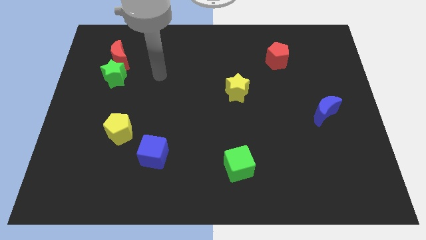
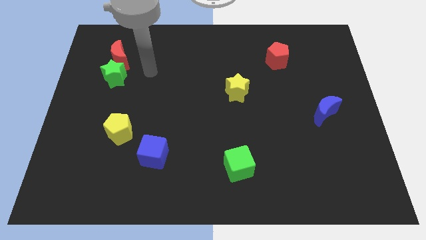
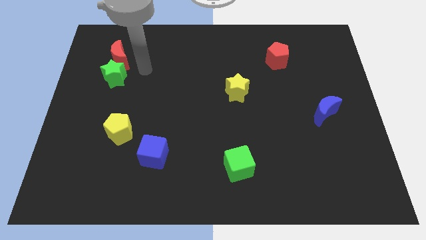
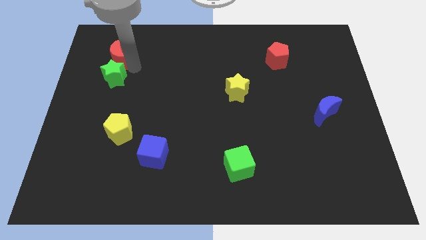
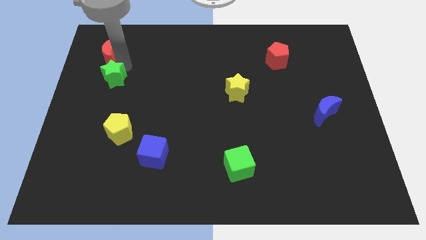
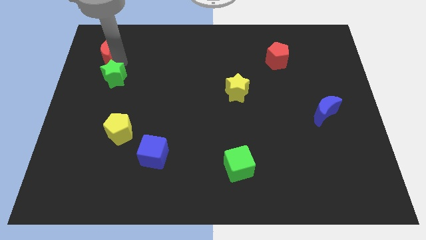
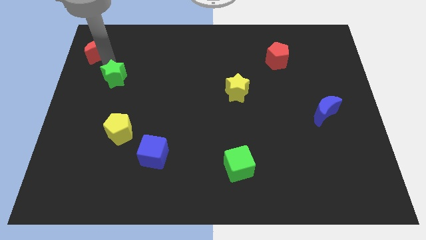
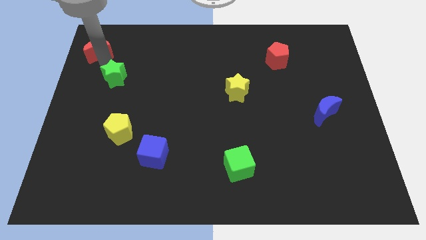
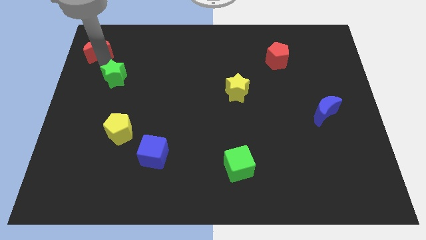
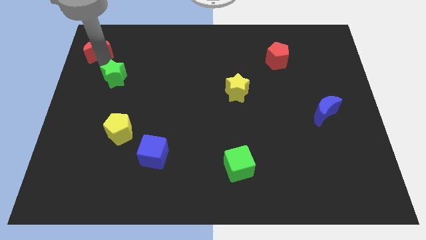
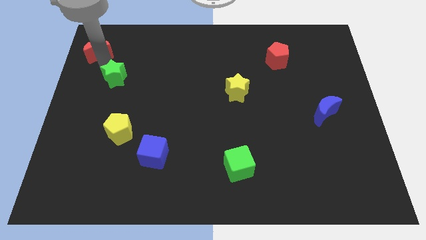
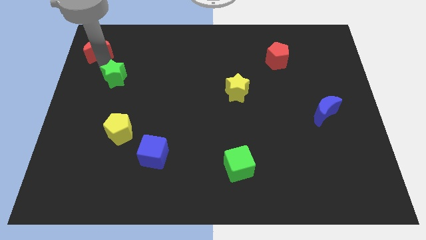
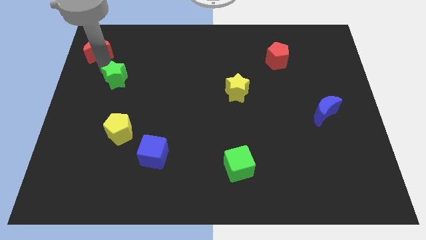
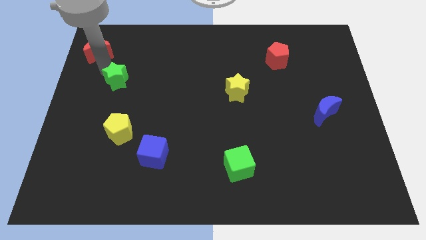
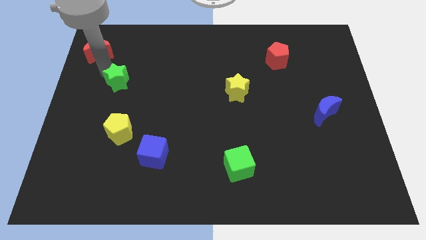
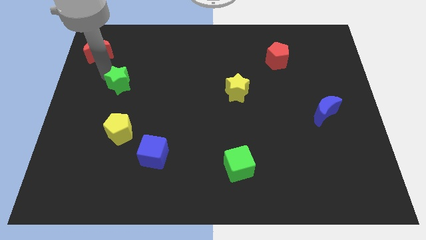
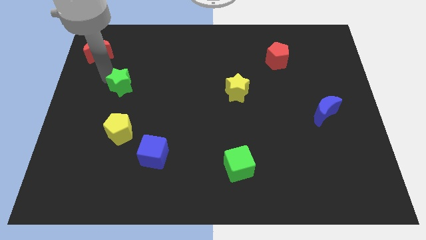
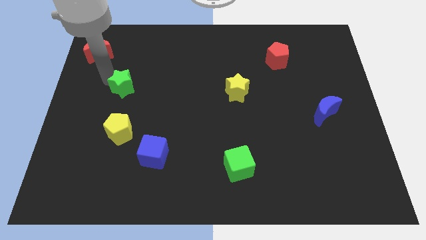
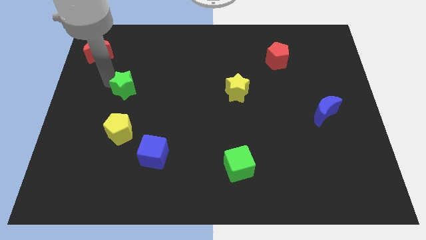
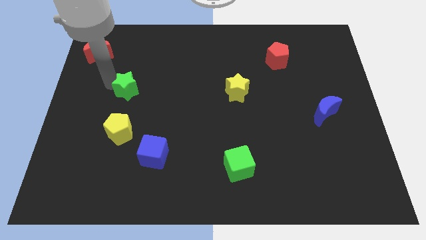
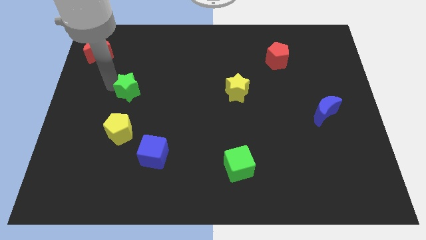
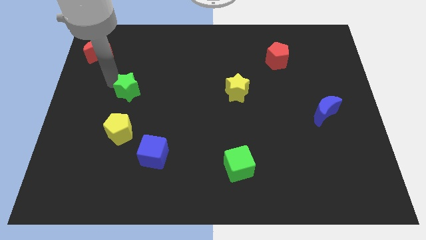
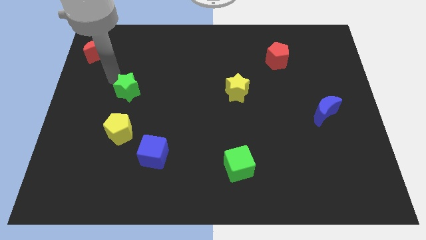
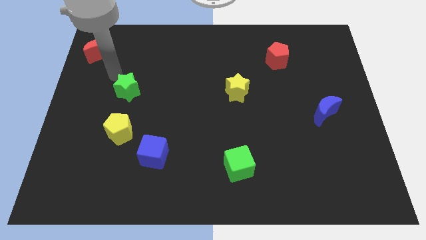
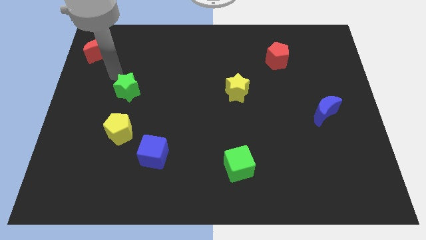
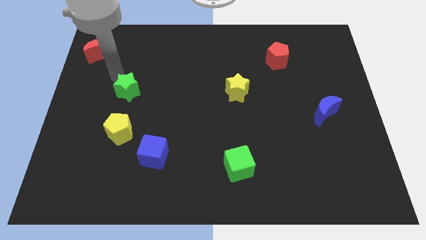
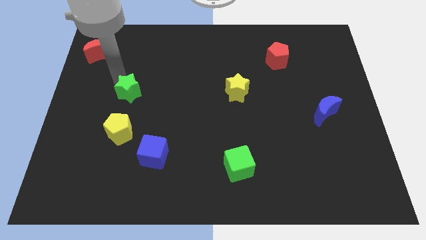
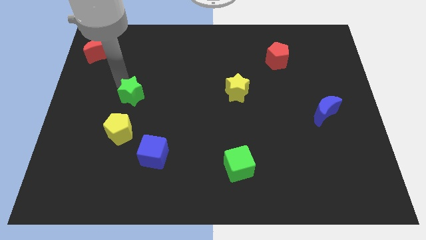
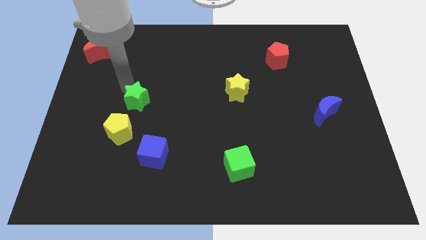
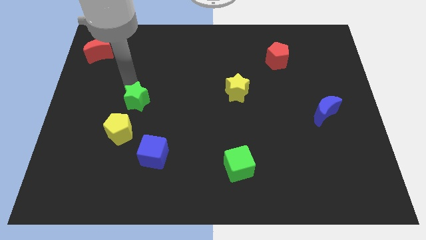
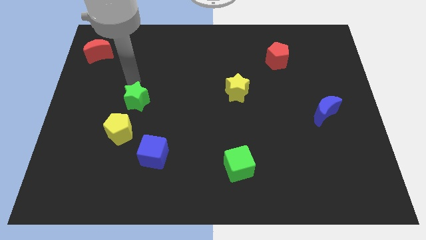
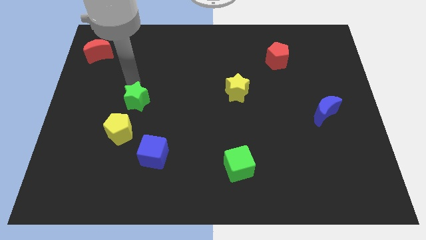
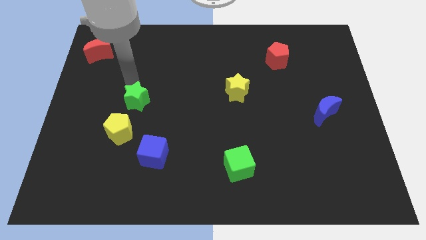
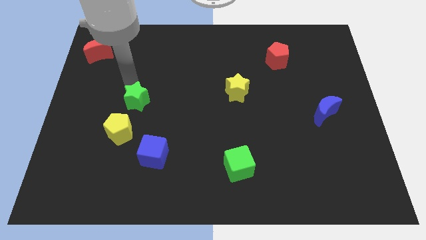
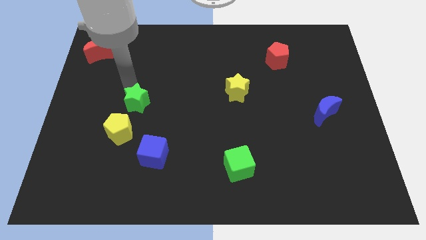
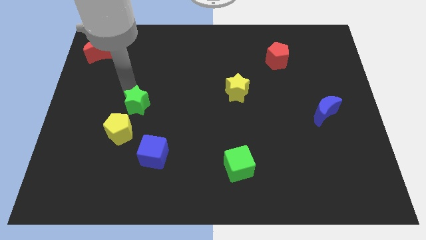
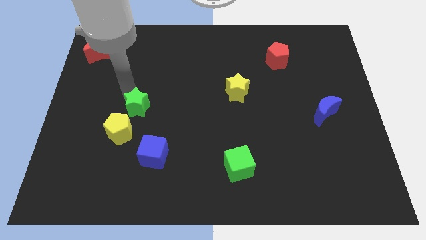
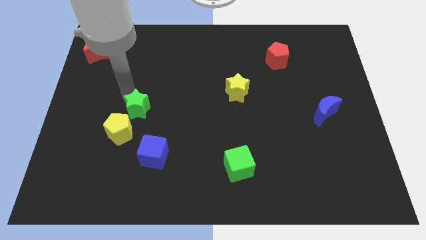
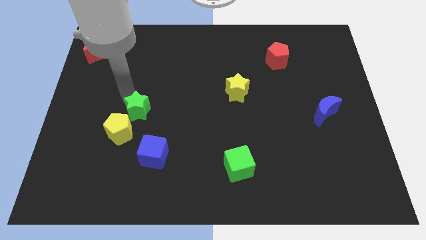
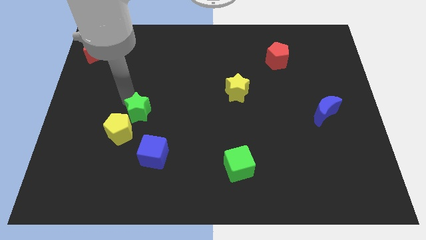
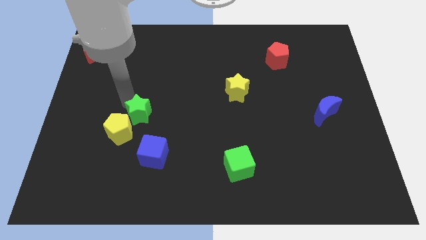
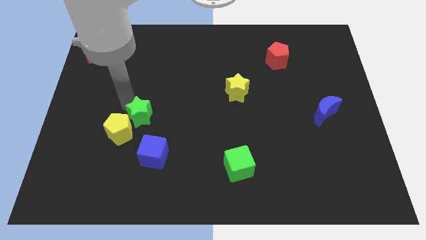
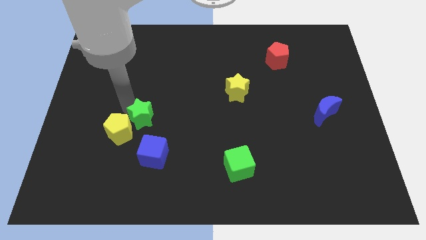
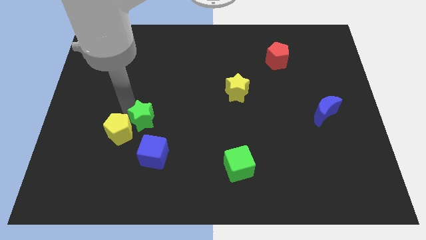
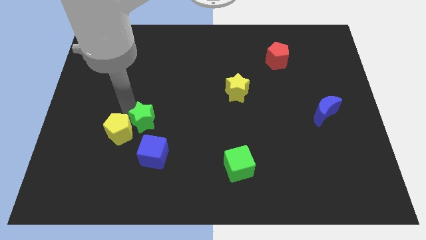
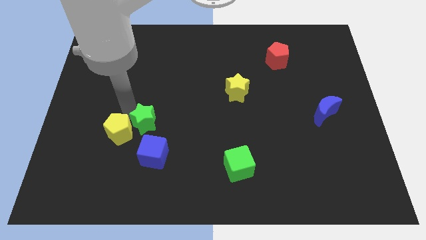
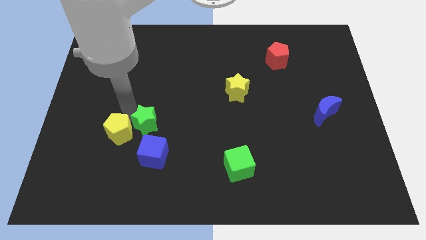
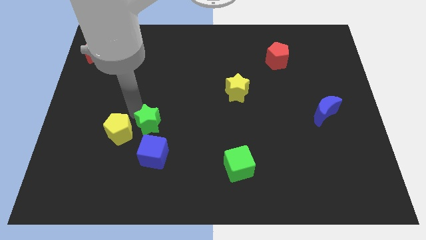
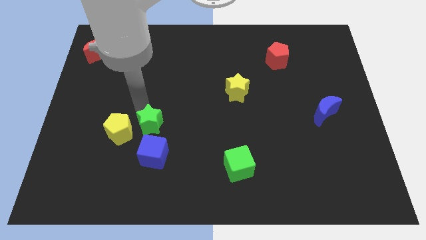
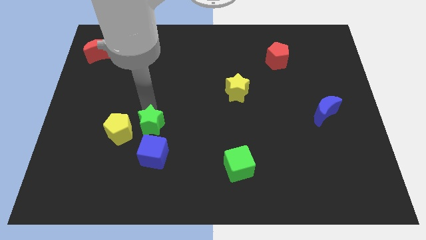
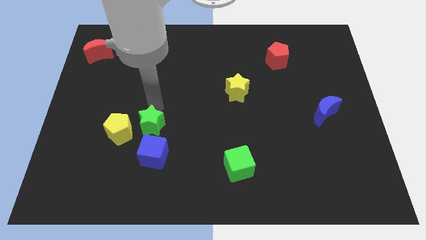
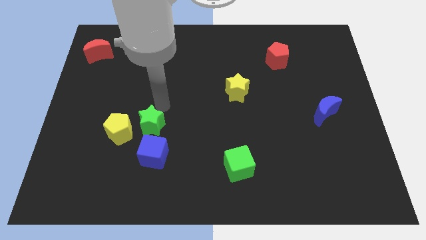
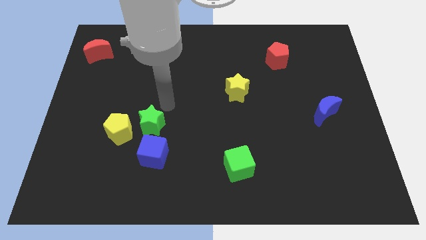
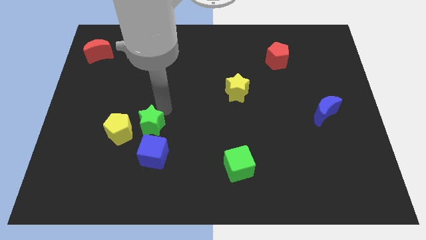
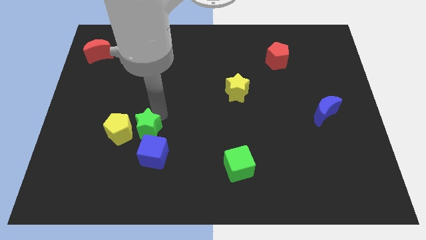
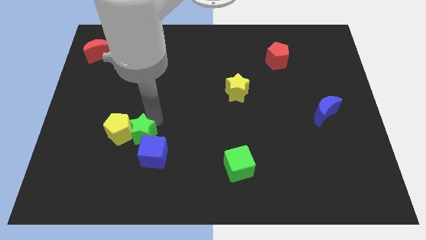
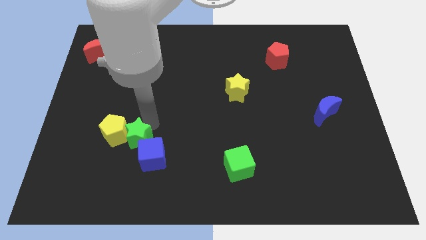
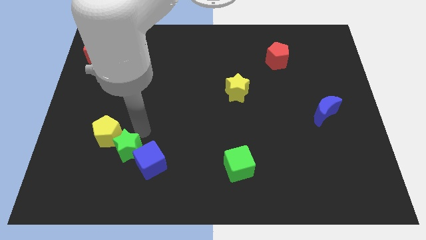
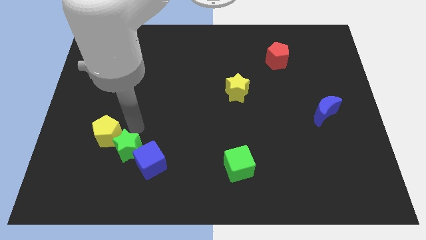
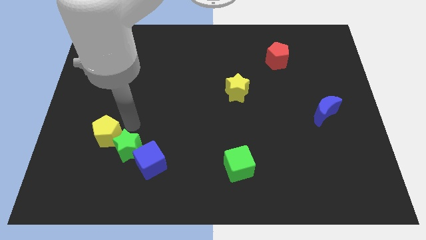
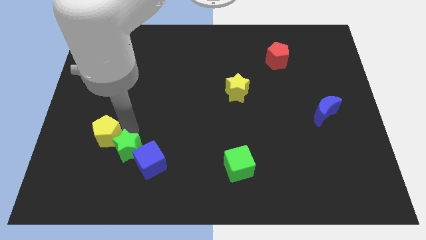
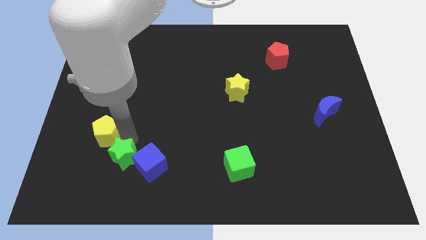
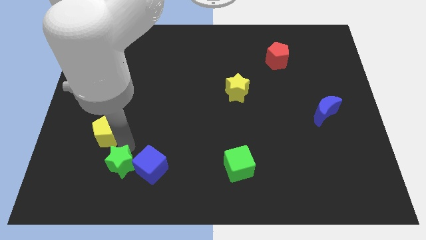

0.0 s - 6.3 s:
put the green star to the bottom left of the blue cube
